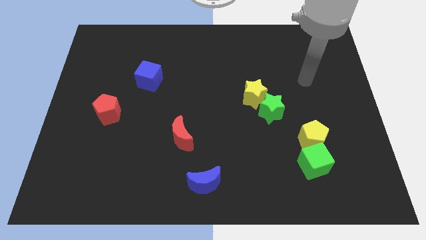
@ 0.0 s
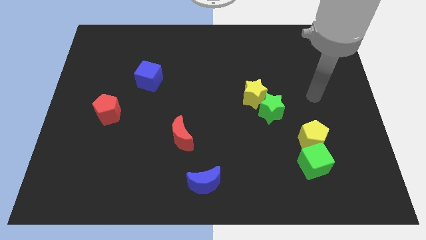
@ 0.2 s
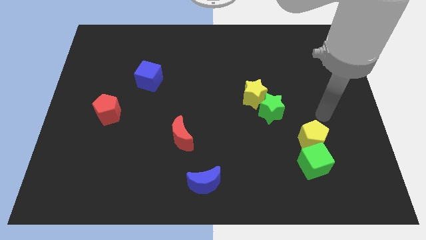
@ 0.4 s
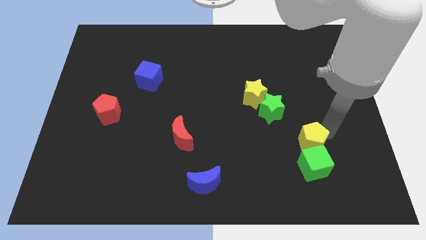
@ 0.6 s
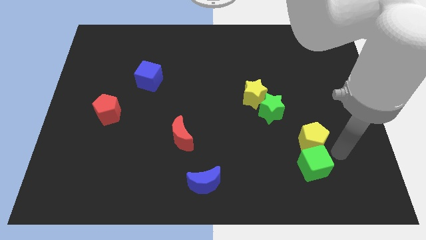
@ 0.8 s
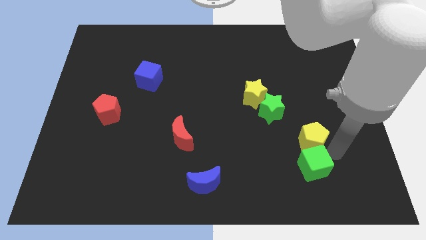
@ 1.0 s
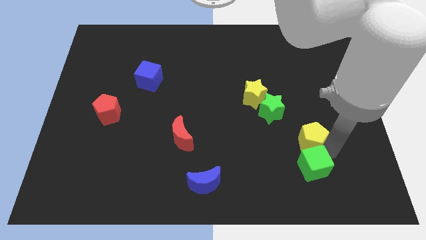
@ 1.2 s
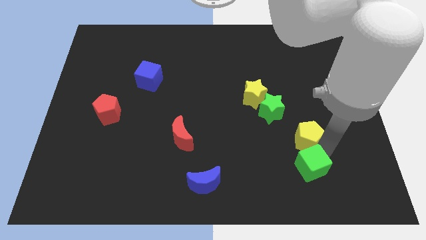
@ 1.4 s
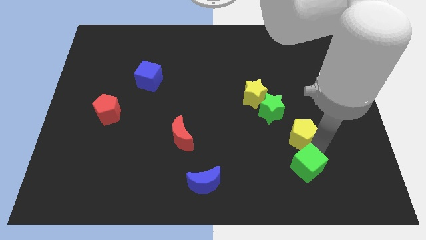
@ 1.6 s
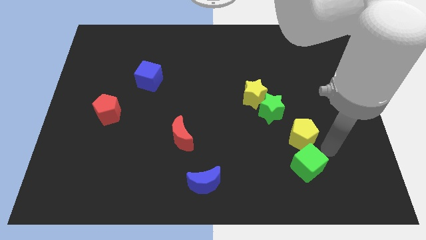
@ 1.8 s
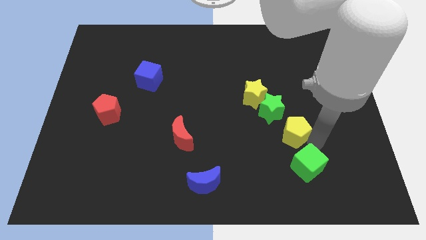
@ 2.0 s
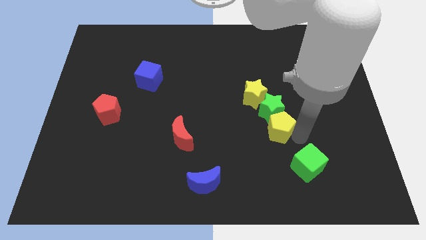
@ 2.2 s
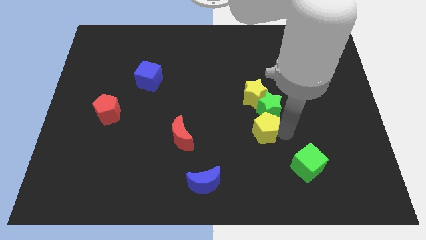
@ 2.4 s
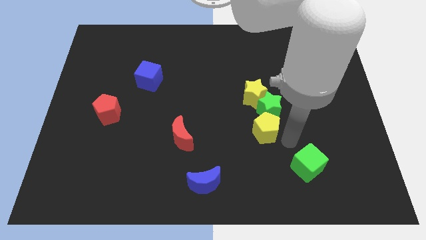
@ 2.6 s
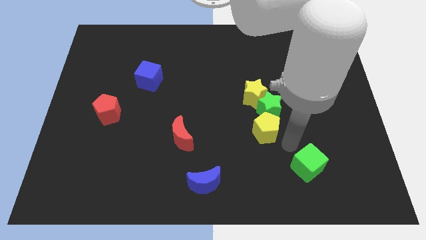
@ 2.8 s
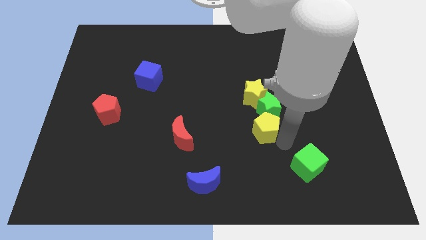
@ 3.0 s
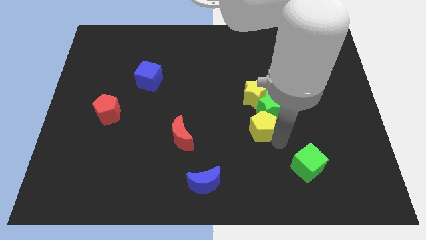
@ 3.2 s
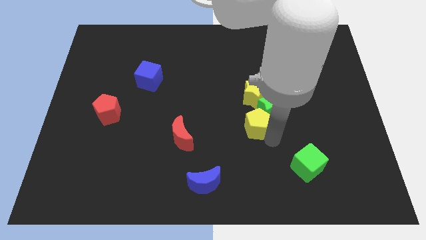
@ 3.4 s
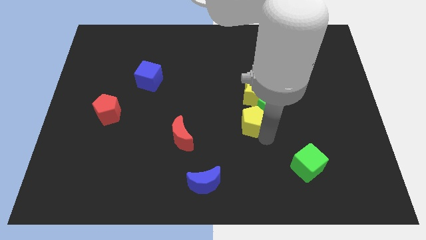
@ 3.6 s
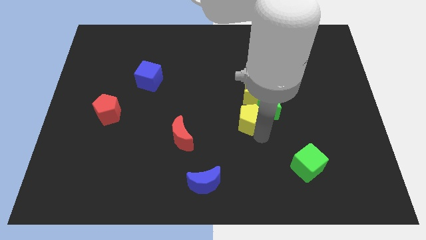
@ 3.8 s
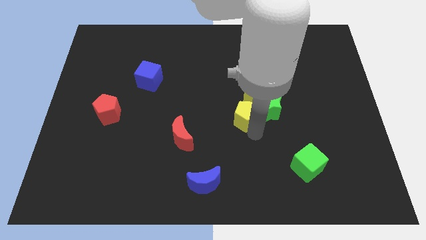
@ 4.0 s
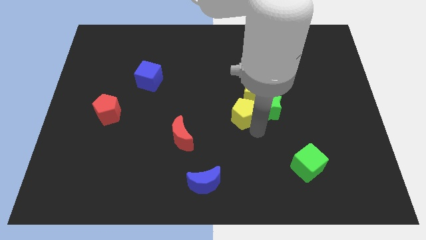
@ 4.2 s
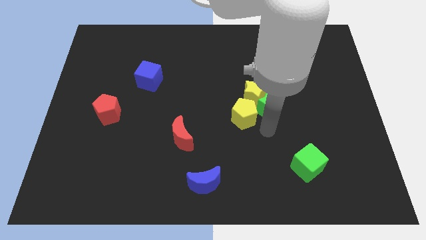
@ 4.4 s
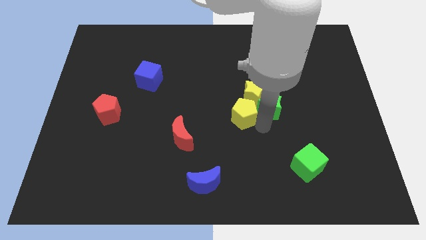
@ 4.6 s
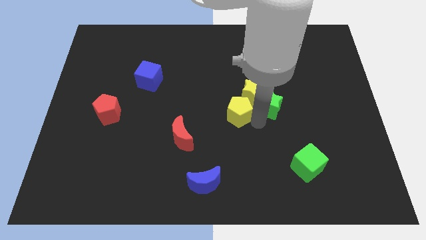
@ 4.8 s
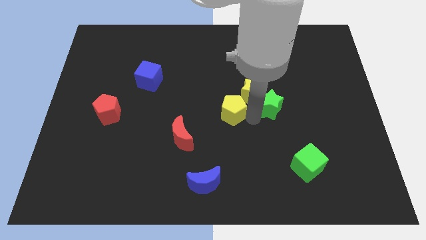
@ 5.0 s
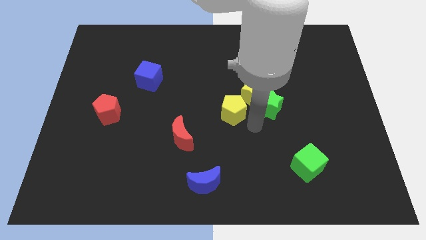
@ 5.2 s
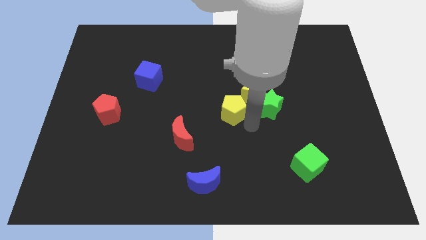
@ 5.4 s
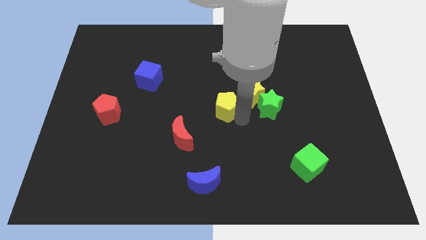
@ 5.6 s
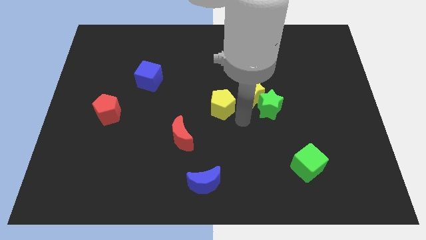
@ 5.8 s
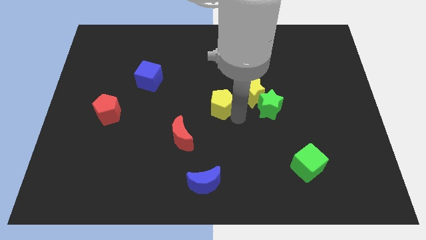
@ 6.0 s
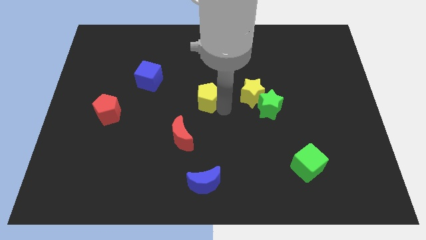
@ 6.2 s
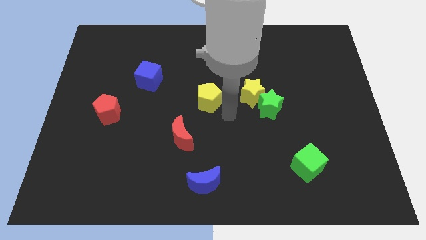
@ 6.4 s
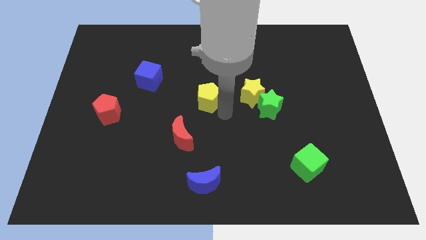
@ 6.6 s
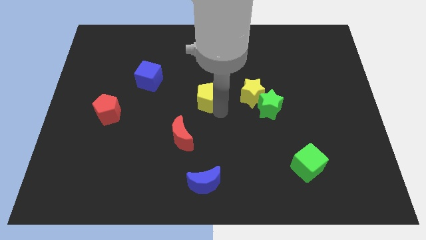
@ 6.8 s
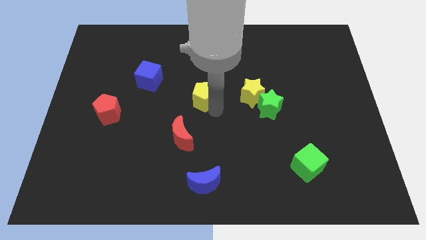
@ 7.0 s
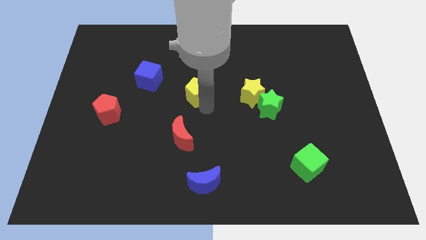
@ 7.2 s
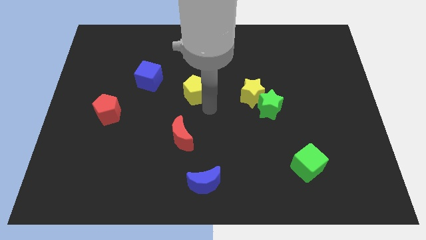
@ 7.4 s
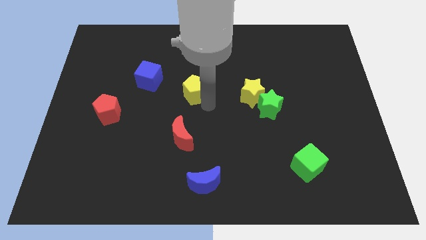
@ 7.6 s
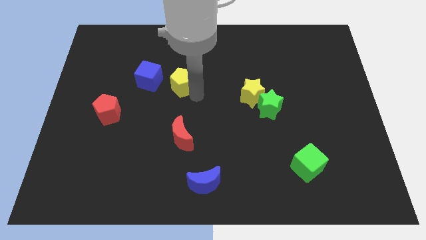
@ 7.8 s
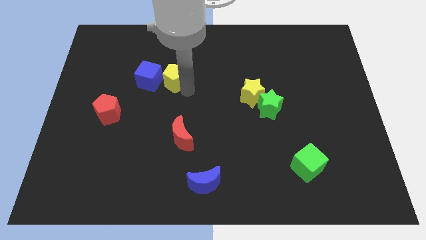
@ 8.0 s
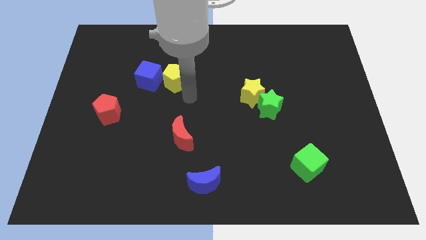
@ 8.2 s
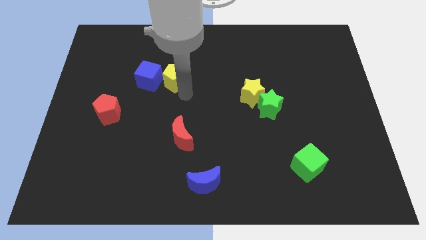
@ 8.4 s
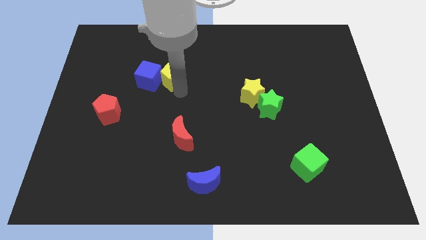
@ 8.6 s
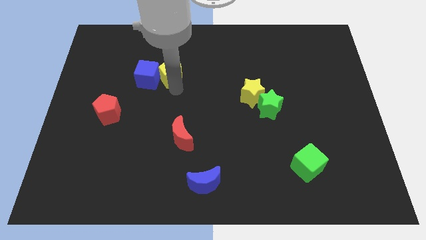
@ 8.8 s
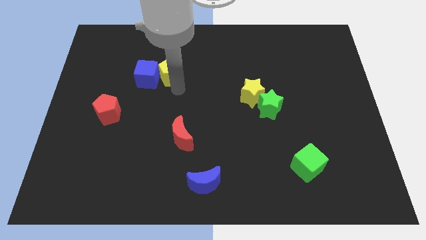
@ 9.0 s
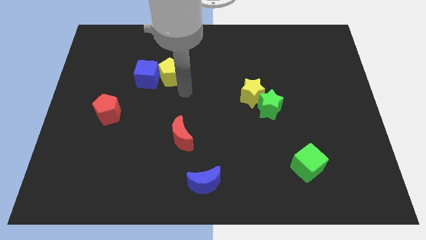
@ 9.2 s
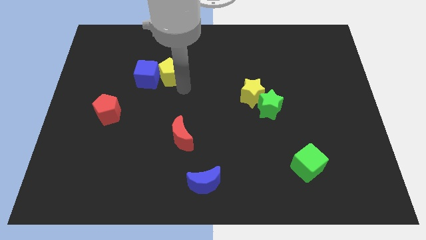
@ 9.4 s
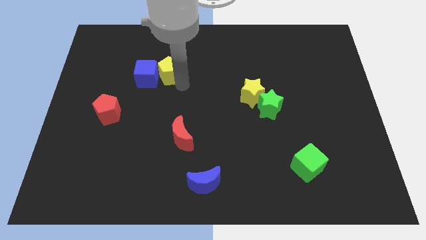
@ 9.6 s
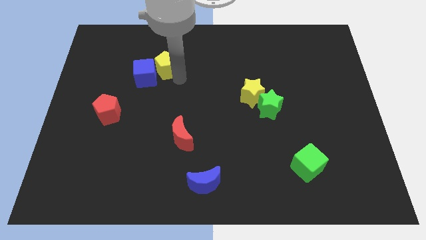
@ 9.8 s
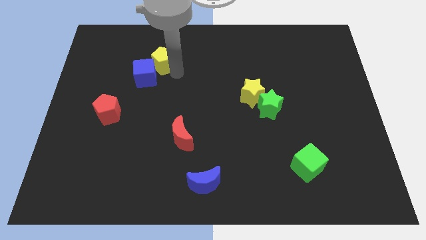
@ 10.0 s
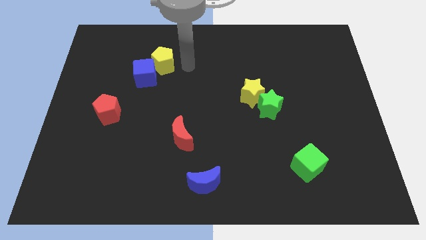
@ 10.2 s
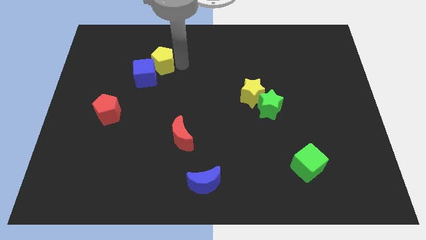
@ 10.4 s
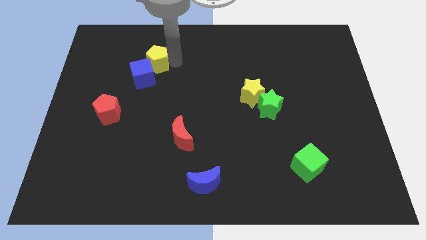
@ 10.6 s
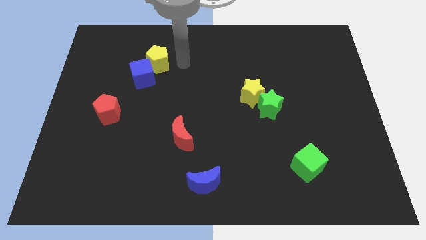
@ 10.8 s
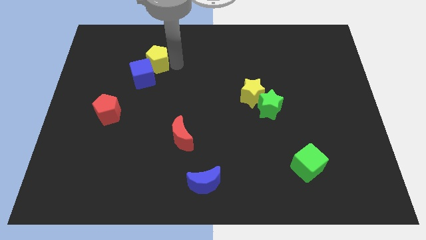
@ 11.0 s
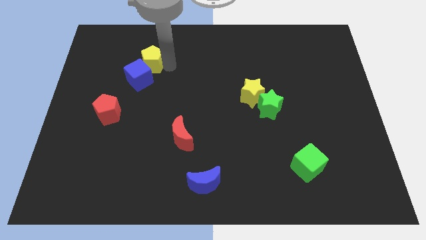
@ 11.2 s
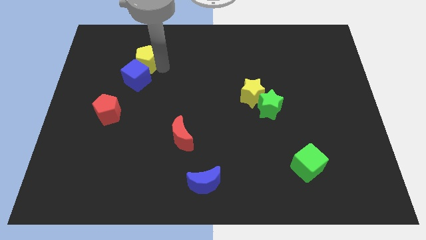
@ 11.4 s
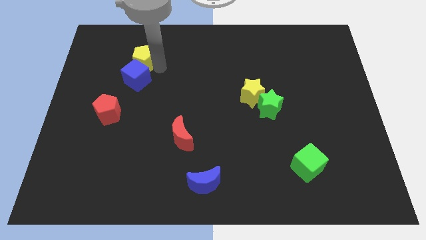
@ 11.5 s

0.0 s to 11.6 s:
slide the yellow pentagon diagonally up and to the left of the blue cube

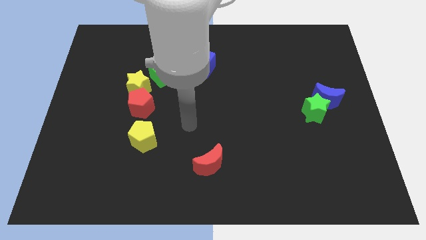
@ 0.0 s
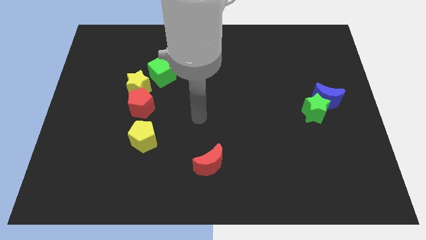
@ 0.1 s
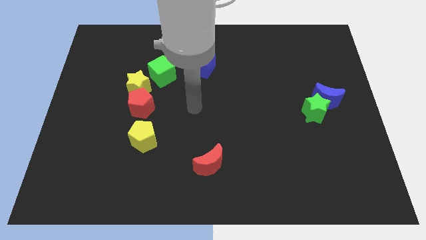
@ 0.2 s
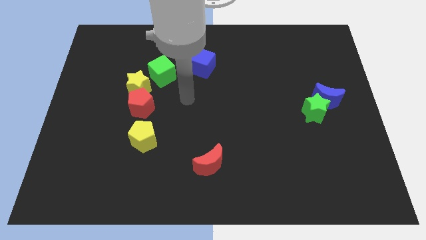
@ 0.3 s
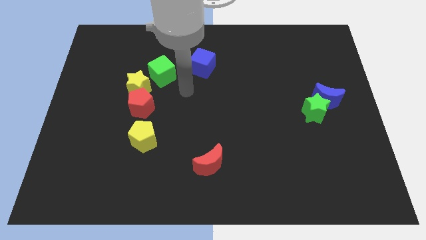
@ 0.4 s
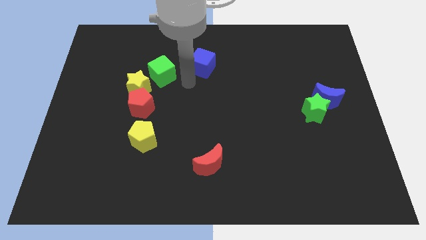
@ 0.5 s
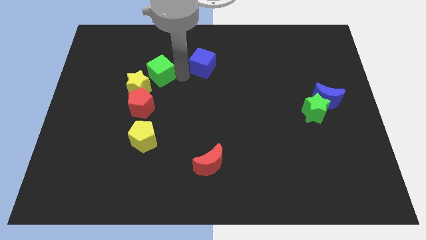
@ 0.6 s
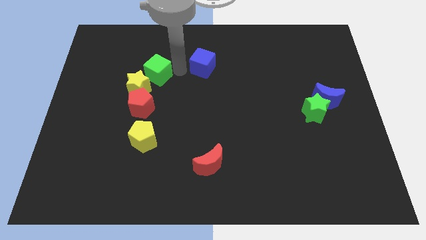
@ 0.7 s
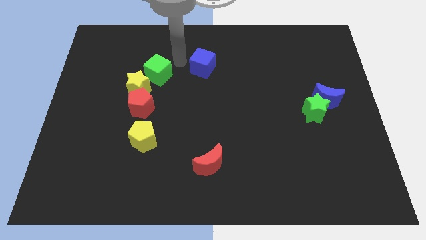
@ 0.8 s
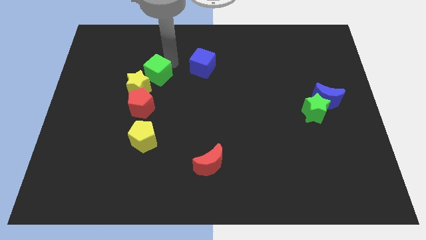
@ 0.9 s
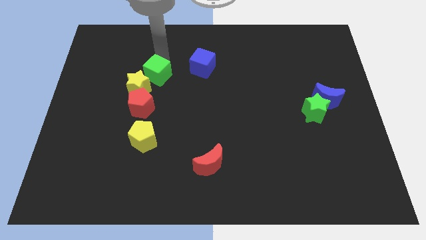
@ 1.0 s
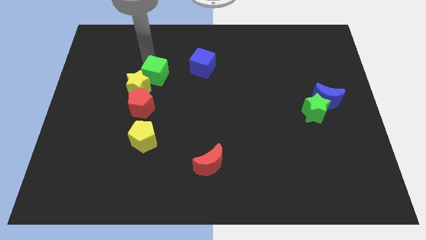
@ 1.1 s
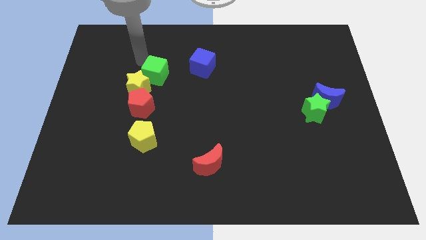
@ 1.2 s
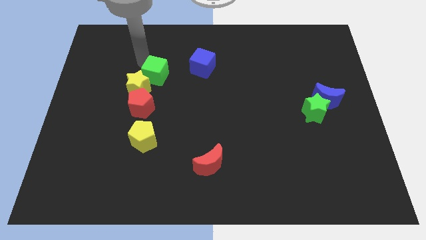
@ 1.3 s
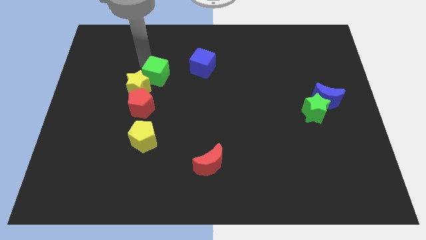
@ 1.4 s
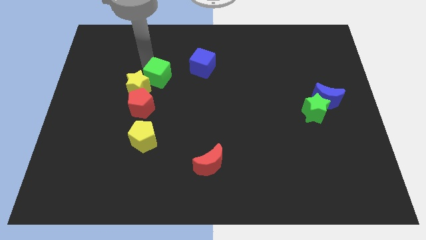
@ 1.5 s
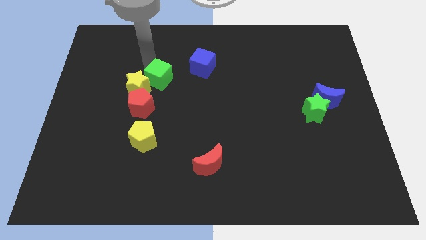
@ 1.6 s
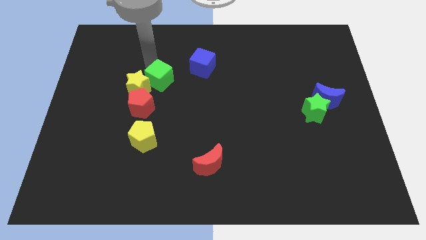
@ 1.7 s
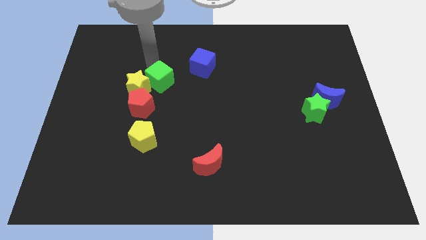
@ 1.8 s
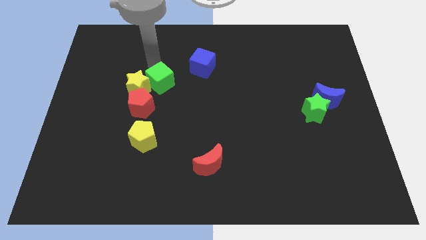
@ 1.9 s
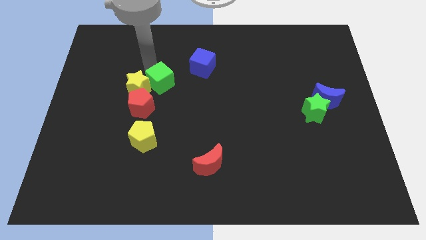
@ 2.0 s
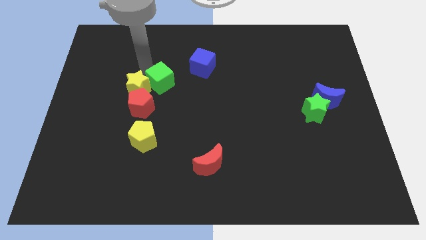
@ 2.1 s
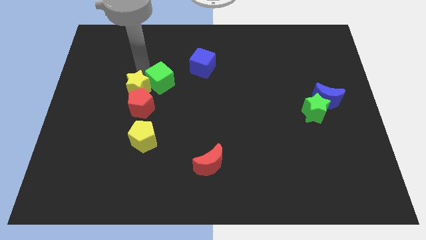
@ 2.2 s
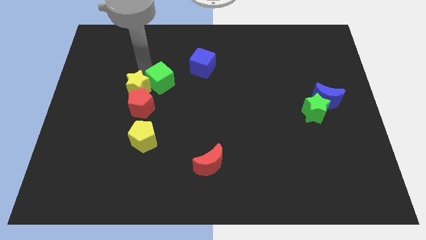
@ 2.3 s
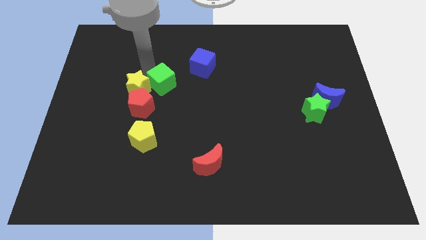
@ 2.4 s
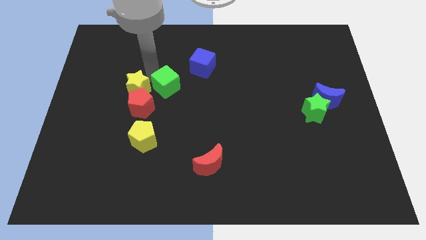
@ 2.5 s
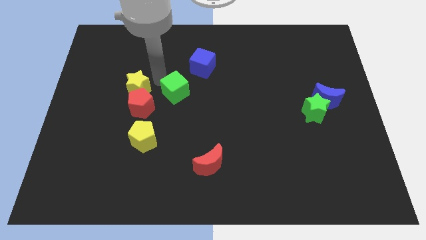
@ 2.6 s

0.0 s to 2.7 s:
push the green cube to the right side of the red pentagon
